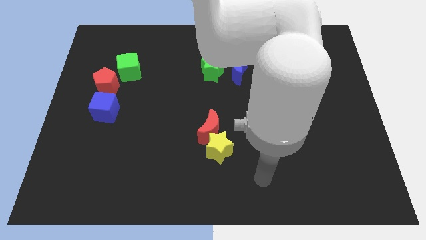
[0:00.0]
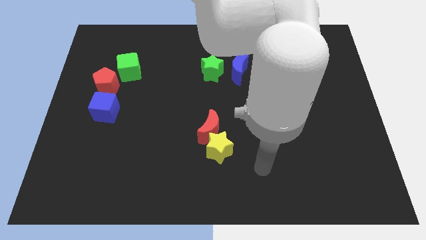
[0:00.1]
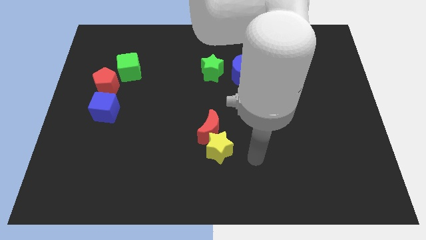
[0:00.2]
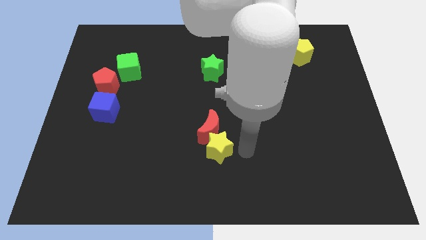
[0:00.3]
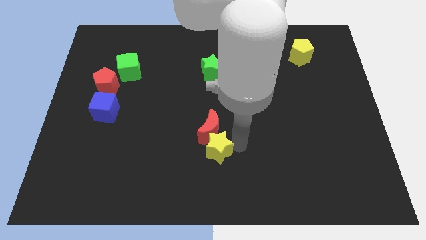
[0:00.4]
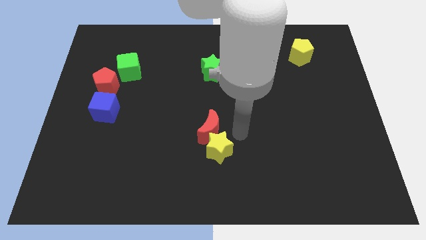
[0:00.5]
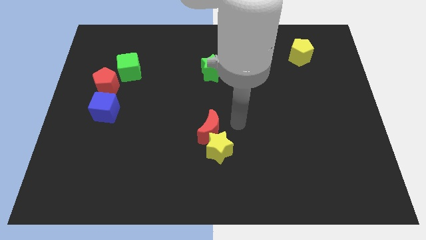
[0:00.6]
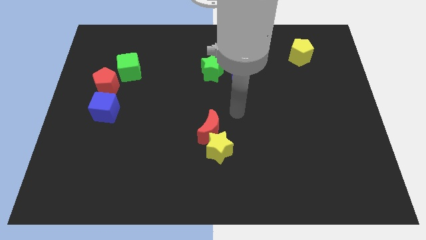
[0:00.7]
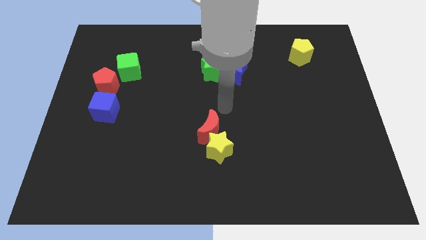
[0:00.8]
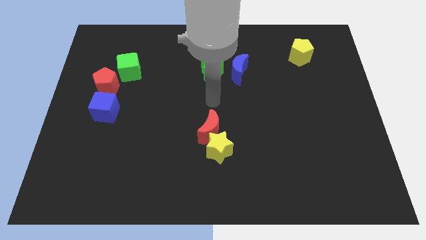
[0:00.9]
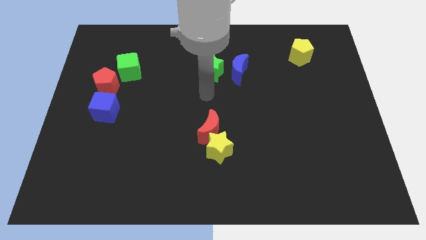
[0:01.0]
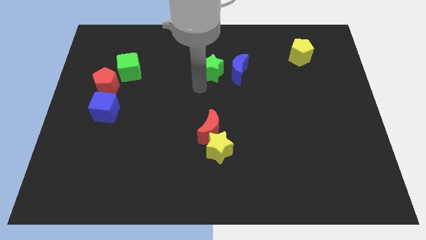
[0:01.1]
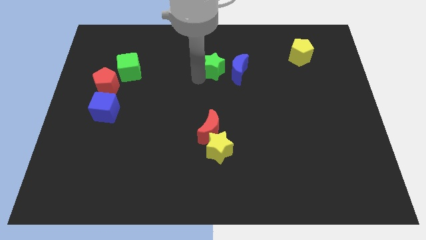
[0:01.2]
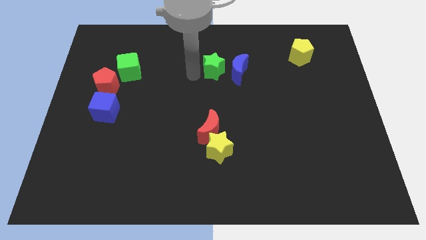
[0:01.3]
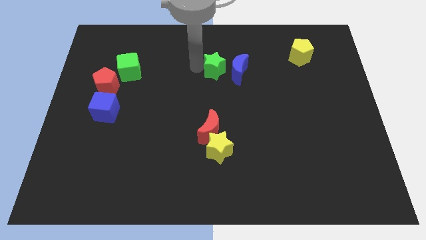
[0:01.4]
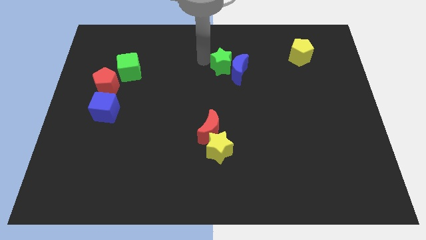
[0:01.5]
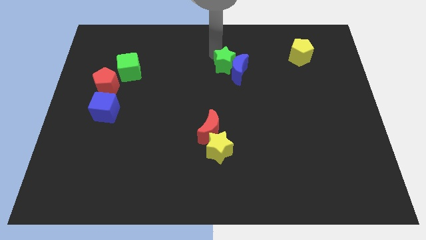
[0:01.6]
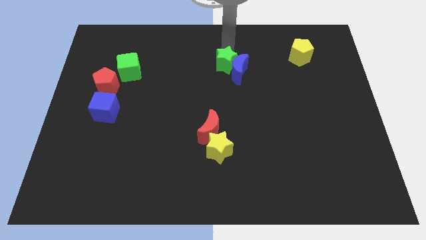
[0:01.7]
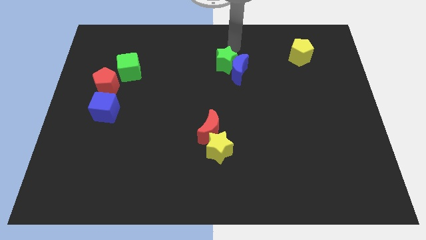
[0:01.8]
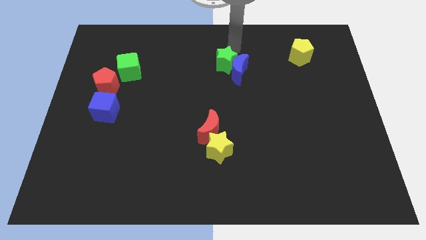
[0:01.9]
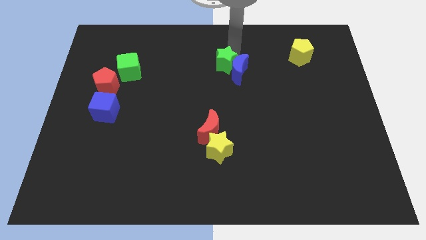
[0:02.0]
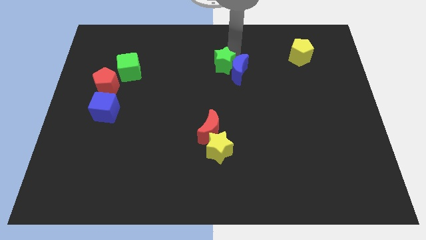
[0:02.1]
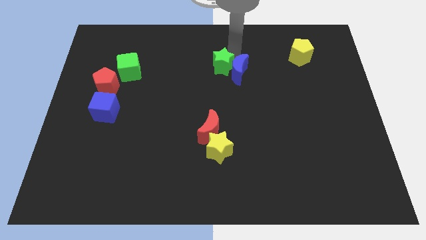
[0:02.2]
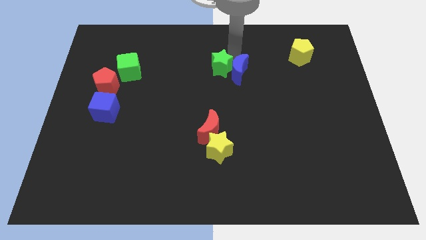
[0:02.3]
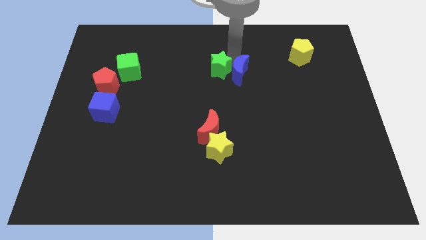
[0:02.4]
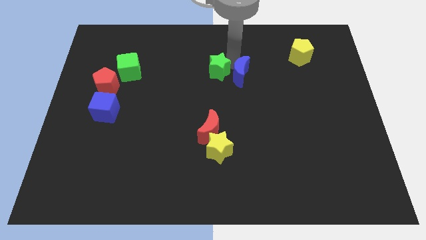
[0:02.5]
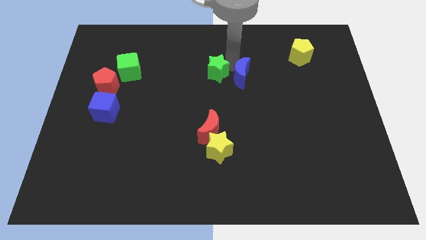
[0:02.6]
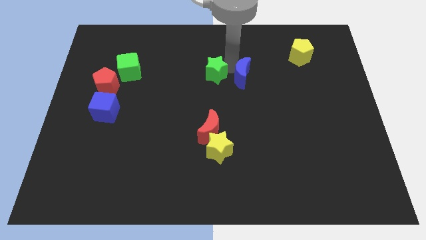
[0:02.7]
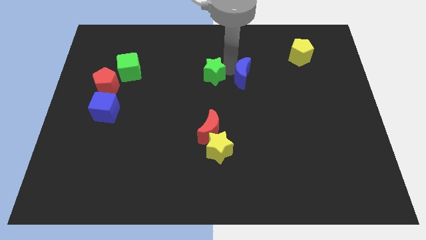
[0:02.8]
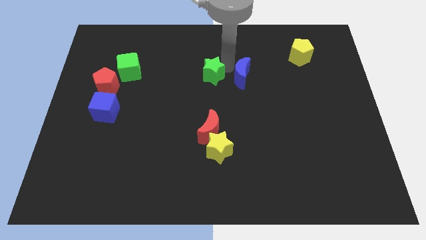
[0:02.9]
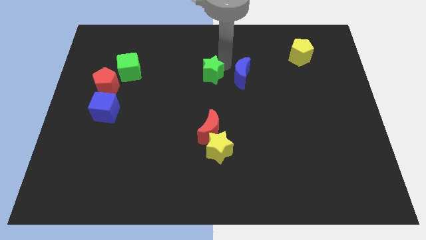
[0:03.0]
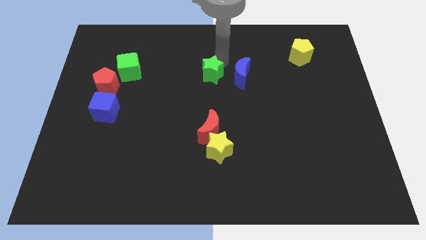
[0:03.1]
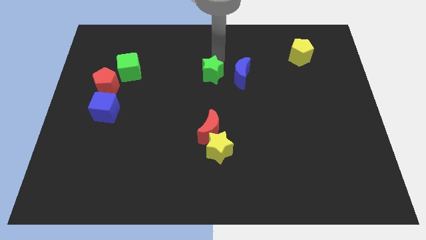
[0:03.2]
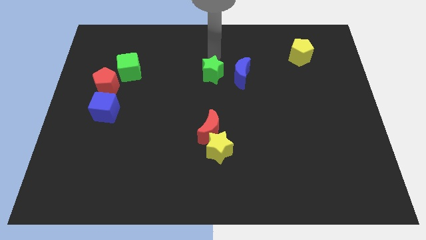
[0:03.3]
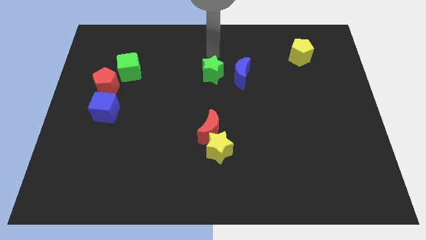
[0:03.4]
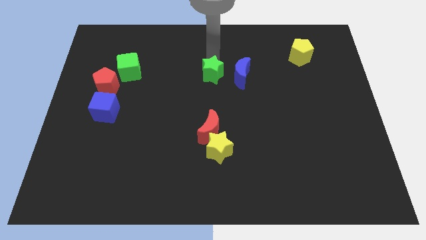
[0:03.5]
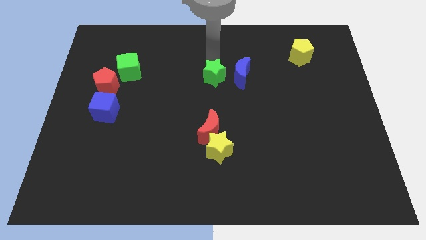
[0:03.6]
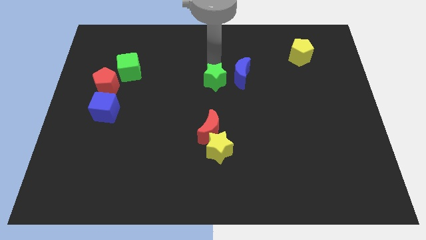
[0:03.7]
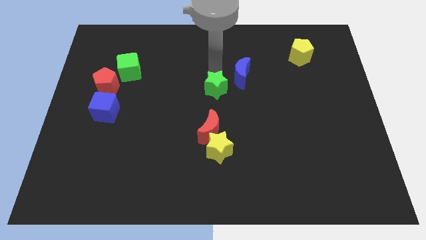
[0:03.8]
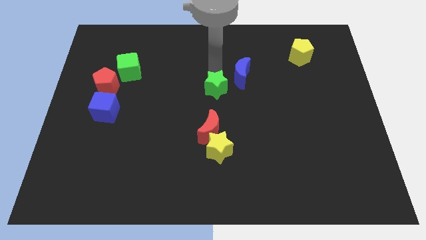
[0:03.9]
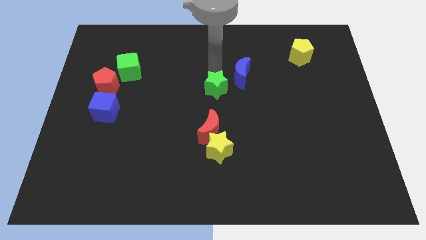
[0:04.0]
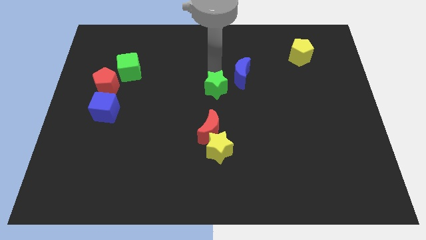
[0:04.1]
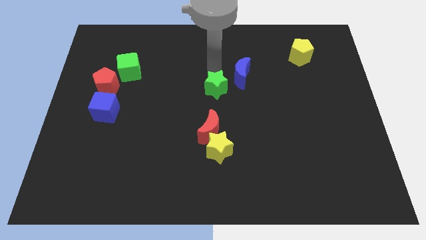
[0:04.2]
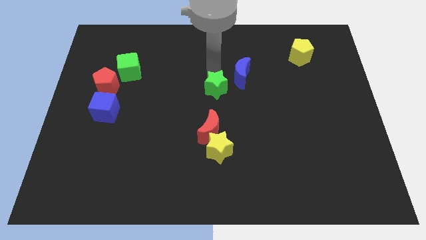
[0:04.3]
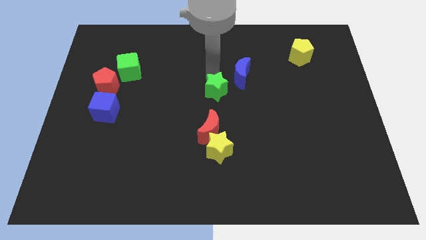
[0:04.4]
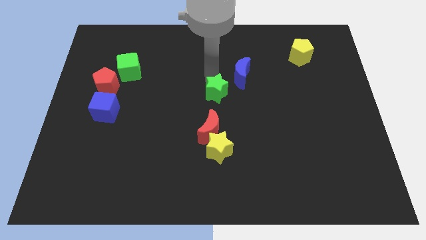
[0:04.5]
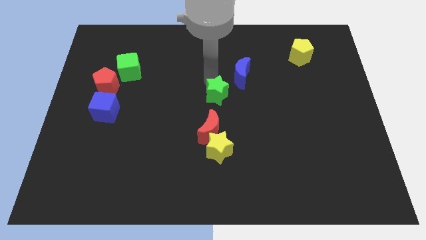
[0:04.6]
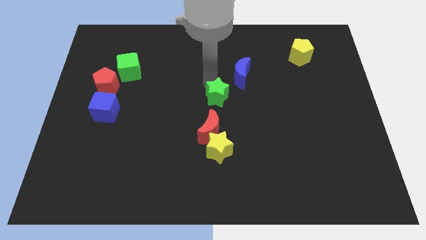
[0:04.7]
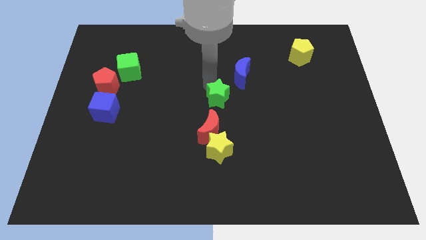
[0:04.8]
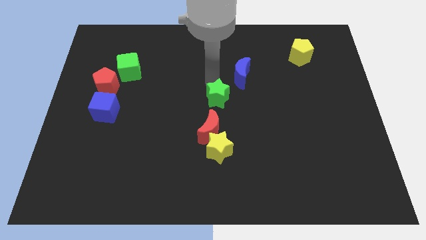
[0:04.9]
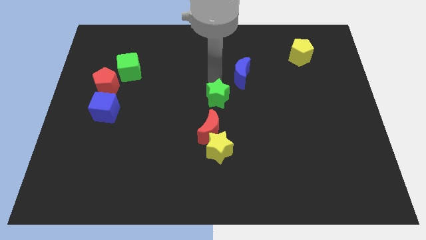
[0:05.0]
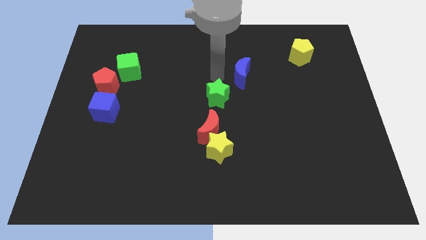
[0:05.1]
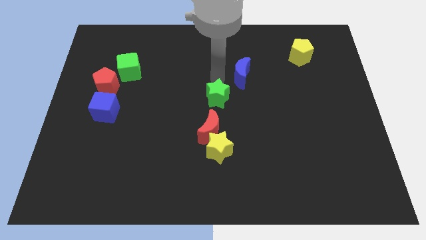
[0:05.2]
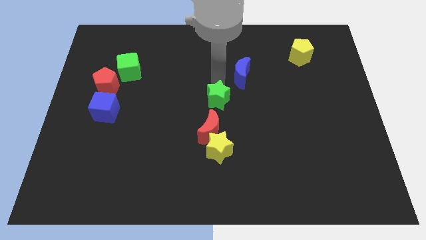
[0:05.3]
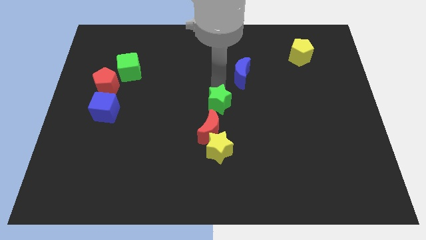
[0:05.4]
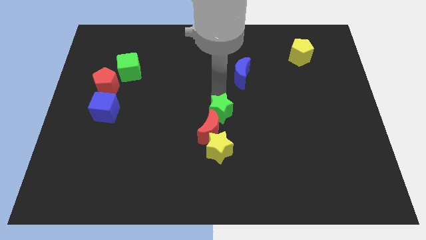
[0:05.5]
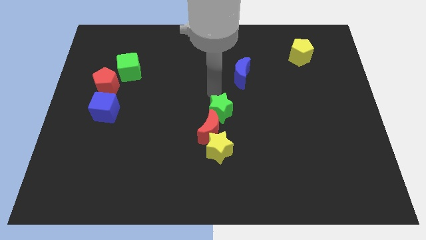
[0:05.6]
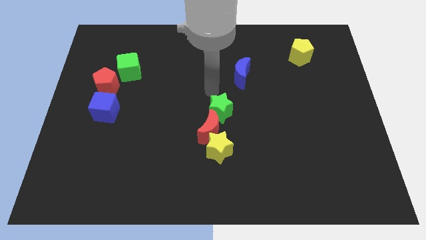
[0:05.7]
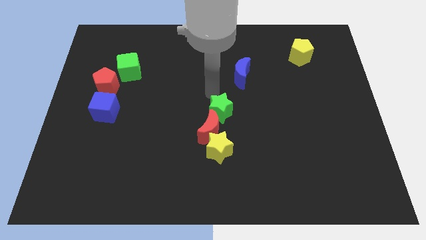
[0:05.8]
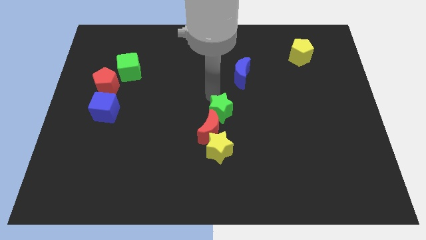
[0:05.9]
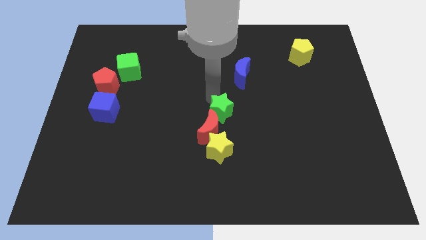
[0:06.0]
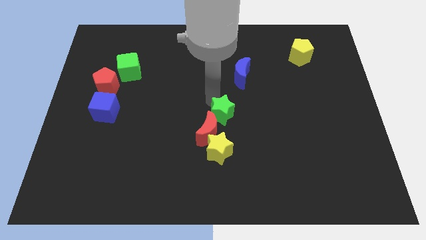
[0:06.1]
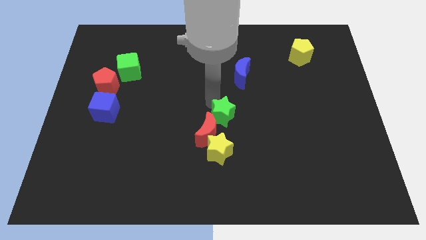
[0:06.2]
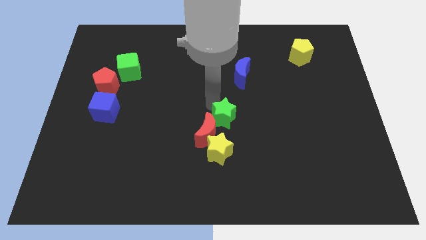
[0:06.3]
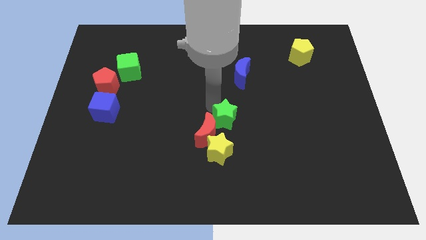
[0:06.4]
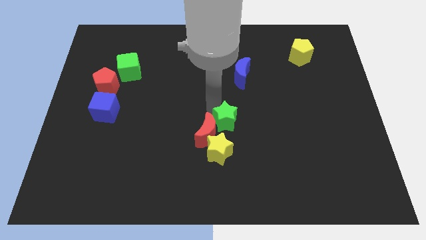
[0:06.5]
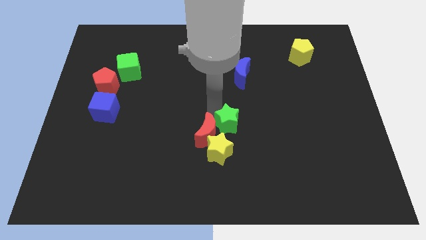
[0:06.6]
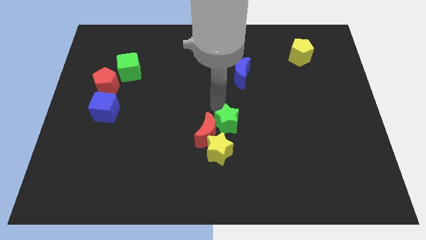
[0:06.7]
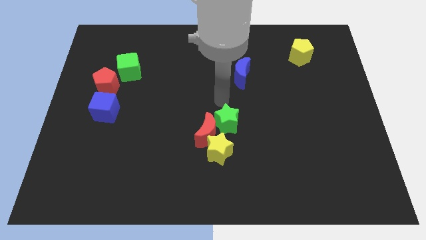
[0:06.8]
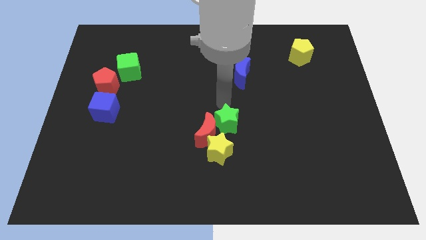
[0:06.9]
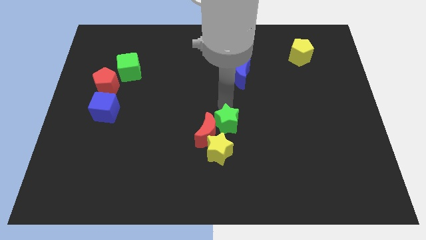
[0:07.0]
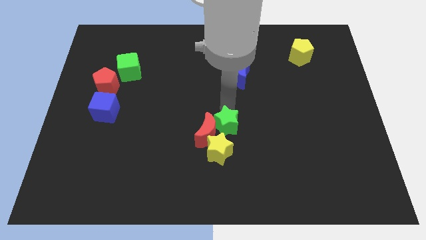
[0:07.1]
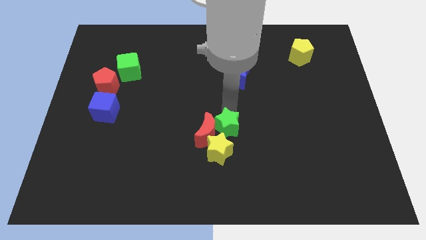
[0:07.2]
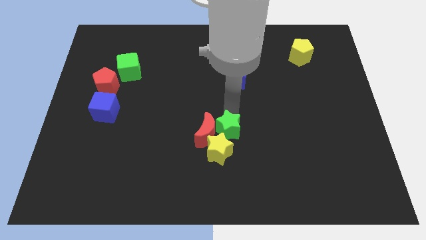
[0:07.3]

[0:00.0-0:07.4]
put the green star to the yellow star
